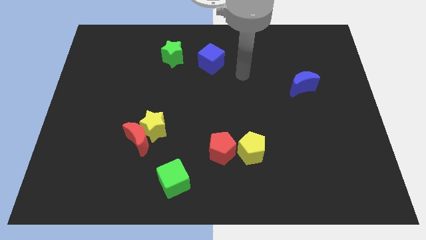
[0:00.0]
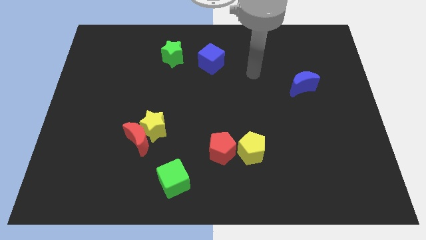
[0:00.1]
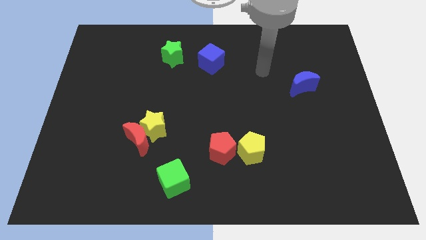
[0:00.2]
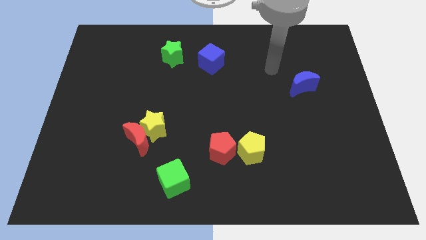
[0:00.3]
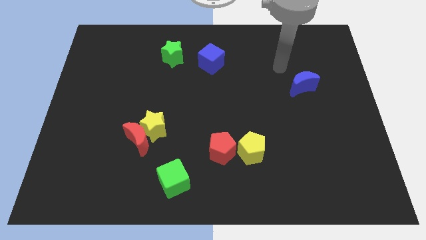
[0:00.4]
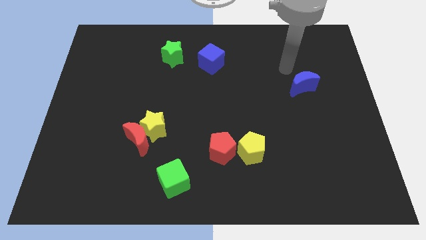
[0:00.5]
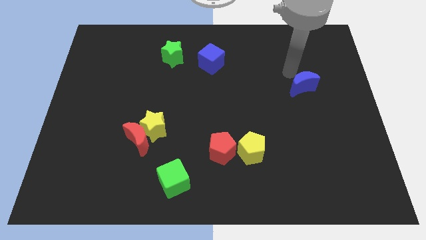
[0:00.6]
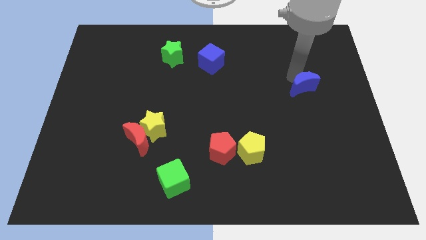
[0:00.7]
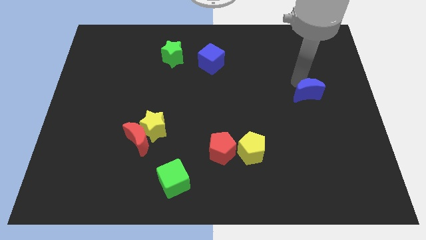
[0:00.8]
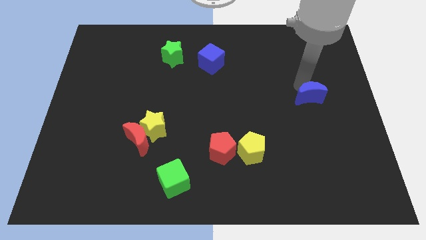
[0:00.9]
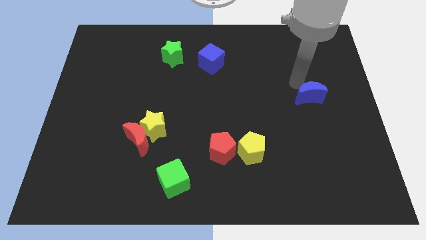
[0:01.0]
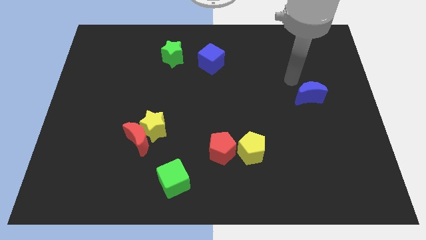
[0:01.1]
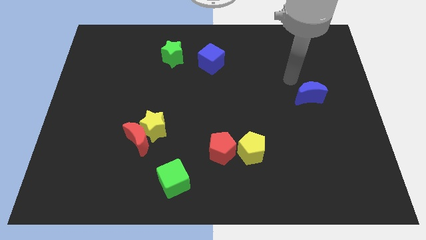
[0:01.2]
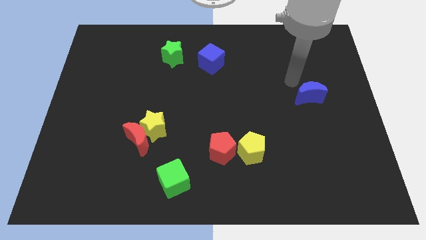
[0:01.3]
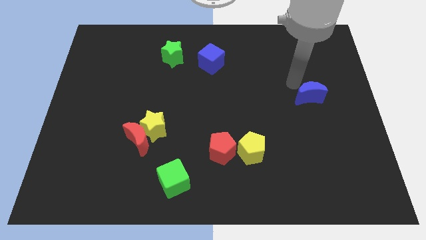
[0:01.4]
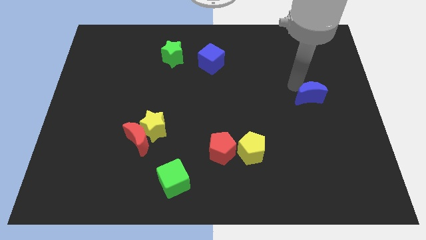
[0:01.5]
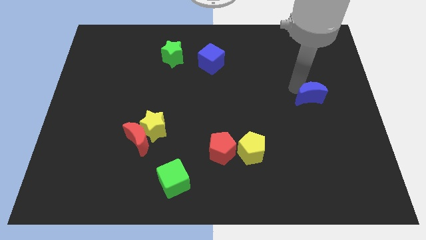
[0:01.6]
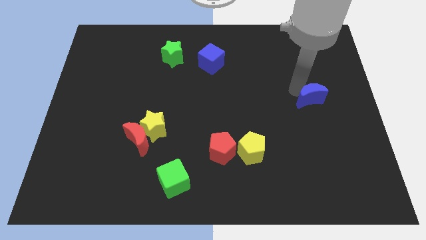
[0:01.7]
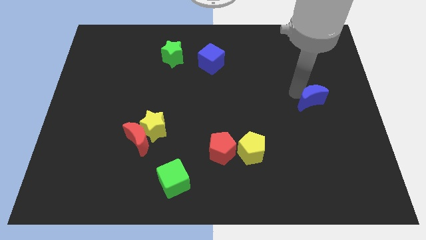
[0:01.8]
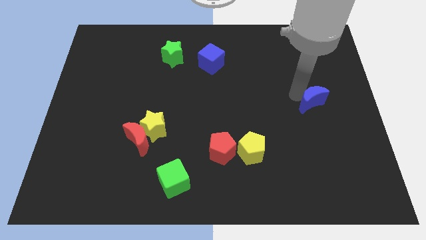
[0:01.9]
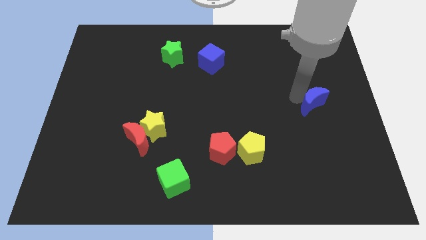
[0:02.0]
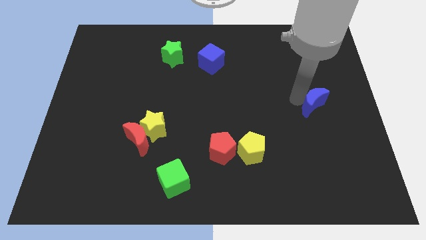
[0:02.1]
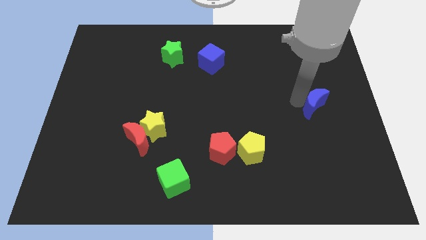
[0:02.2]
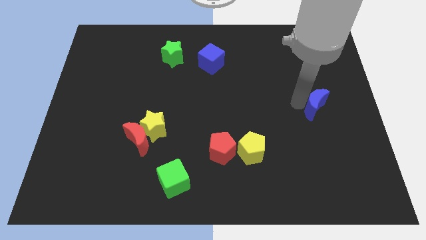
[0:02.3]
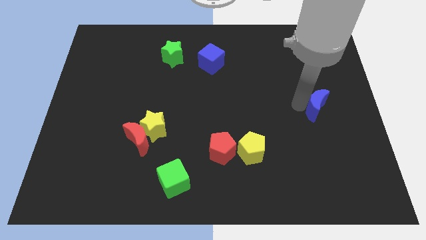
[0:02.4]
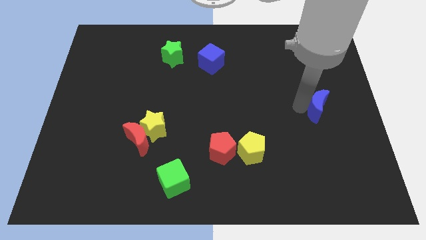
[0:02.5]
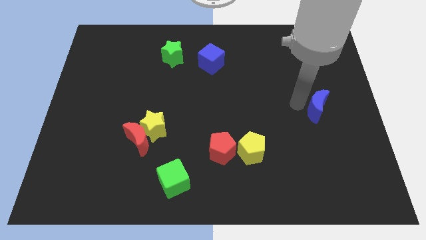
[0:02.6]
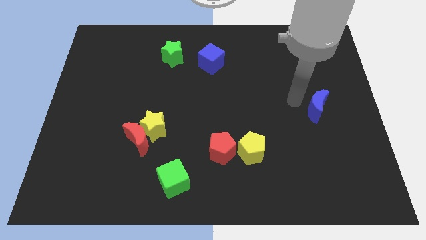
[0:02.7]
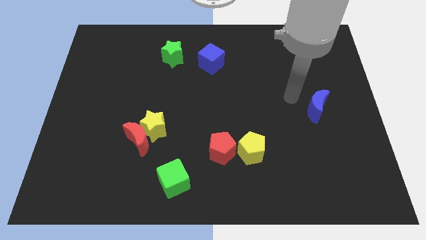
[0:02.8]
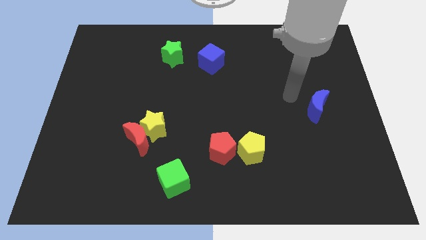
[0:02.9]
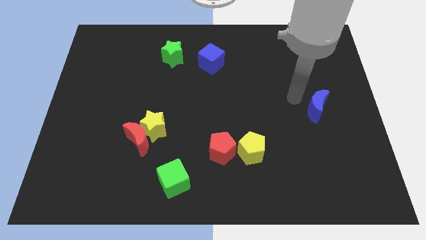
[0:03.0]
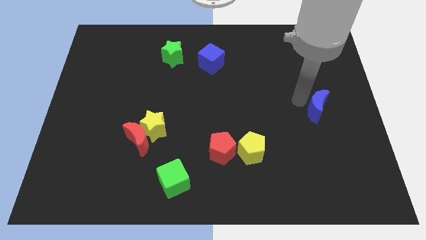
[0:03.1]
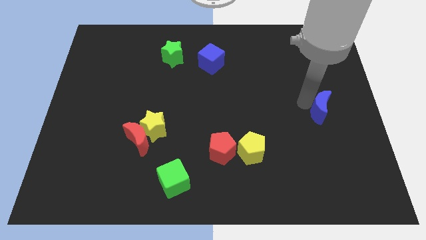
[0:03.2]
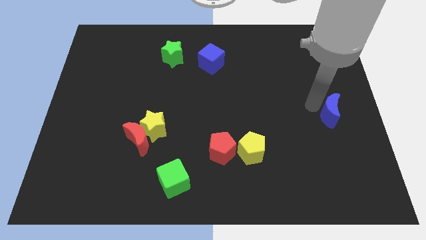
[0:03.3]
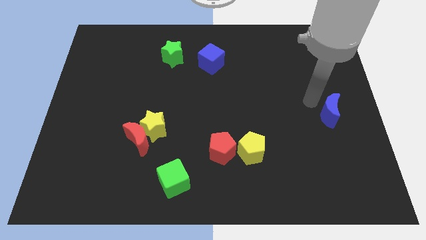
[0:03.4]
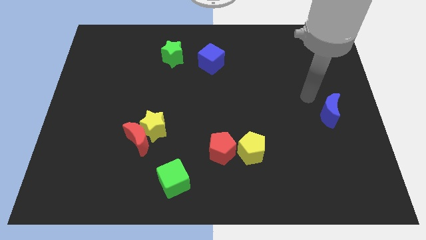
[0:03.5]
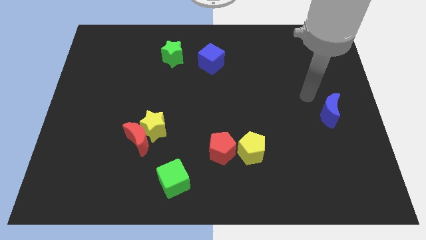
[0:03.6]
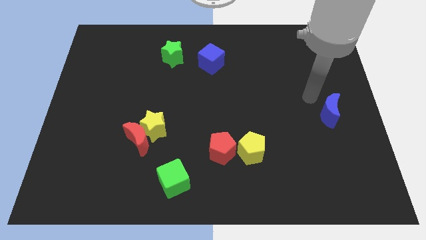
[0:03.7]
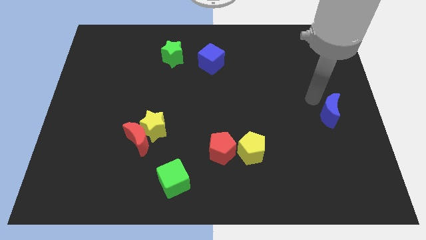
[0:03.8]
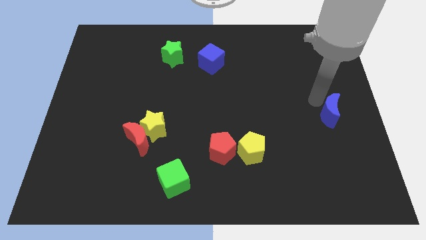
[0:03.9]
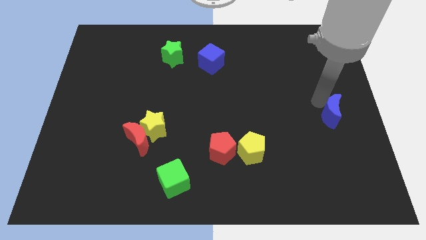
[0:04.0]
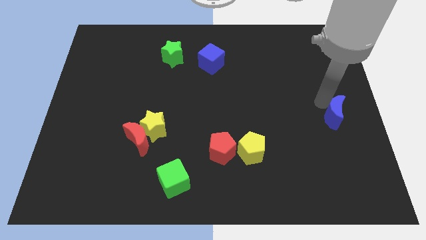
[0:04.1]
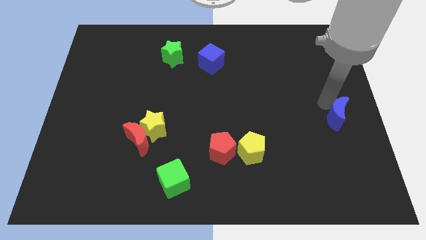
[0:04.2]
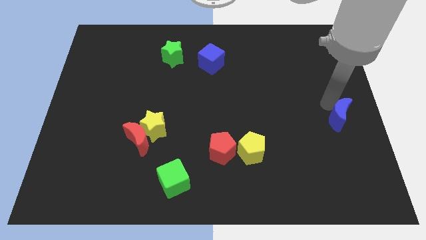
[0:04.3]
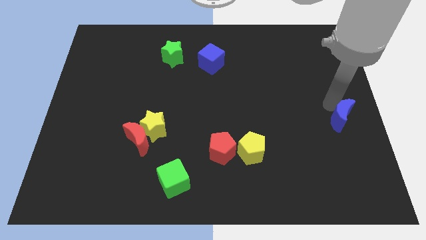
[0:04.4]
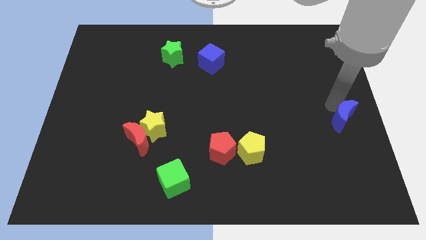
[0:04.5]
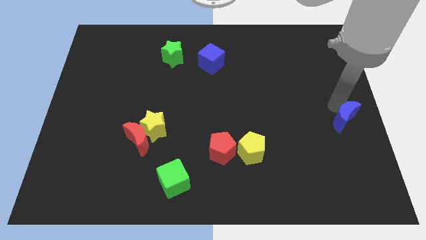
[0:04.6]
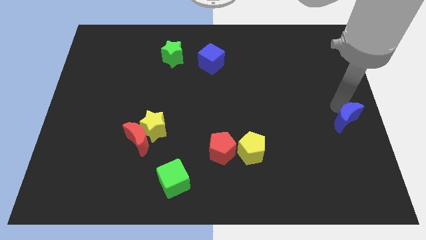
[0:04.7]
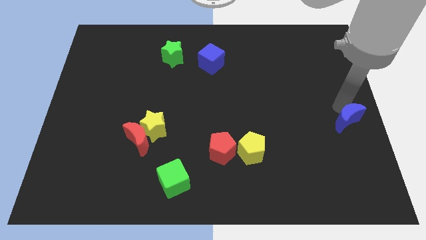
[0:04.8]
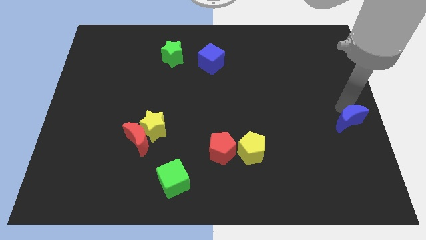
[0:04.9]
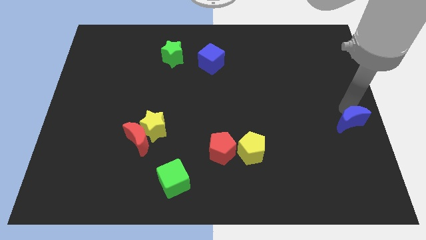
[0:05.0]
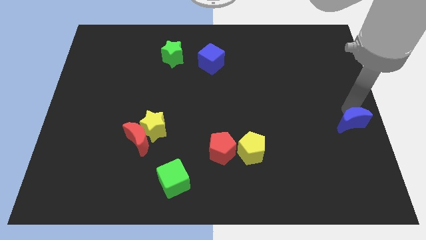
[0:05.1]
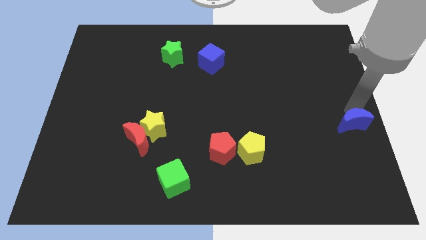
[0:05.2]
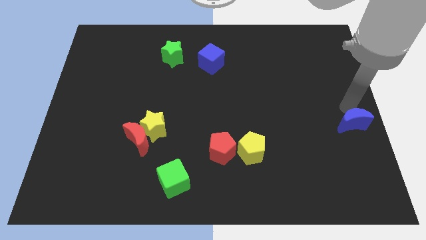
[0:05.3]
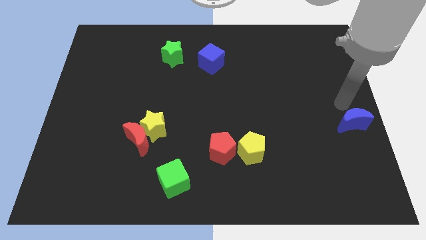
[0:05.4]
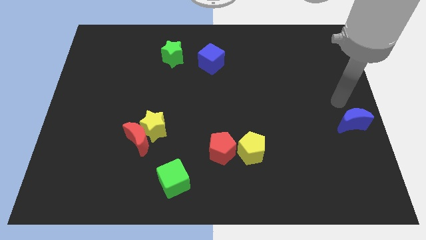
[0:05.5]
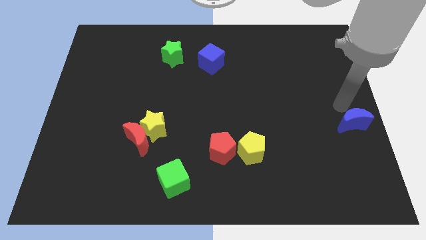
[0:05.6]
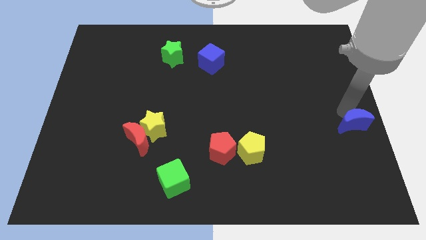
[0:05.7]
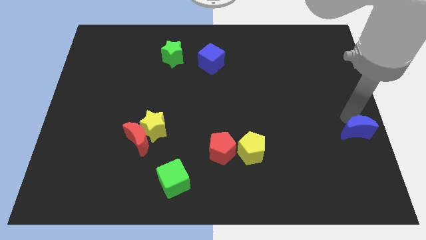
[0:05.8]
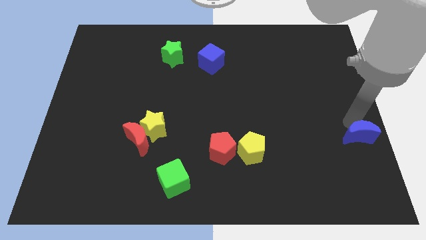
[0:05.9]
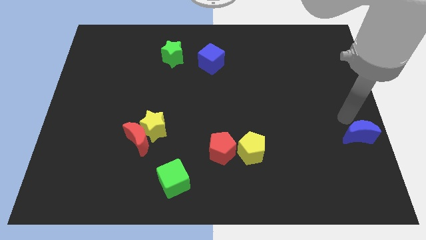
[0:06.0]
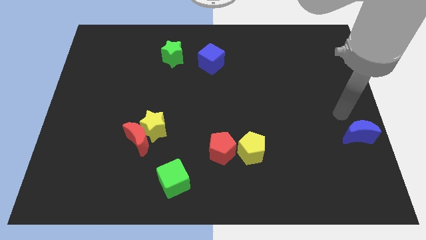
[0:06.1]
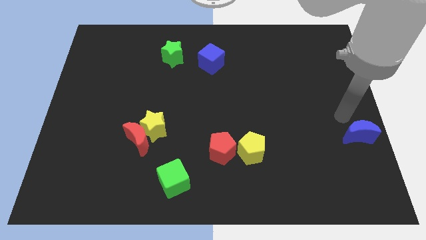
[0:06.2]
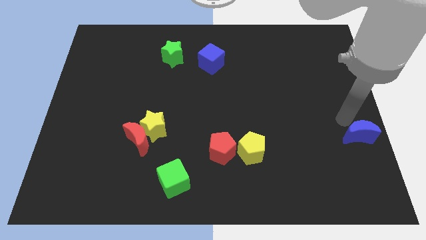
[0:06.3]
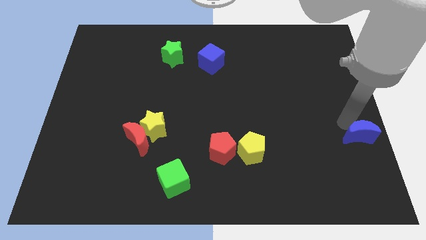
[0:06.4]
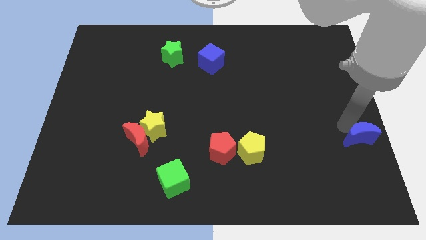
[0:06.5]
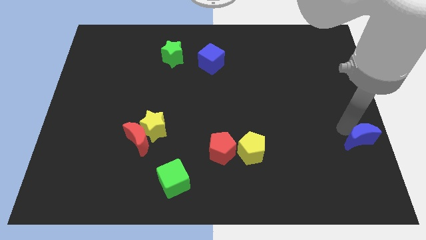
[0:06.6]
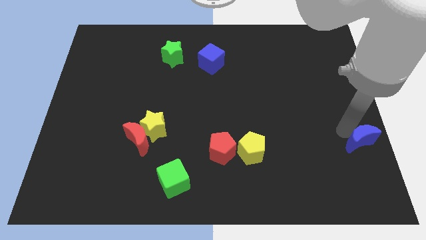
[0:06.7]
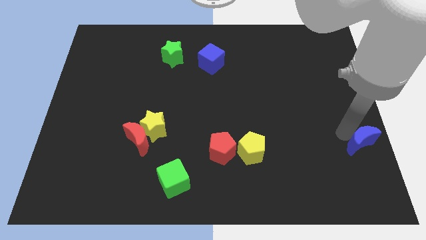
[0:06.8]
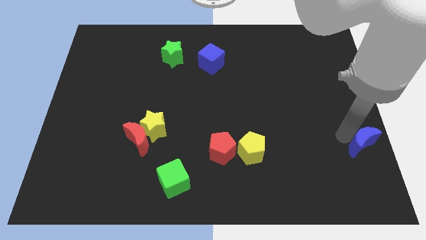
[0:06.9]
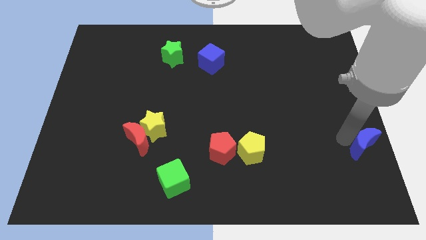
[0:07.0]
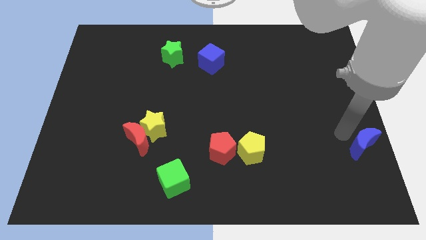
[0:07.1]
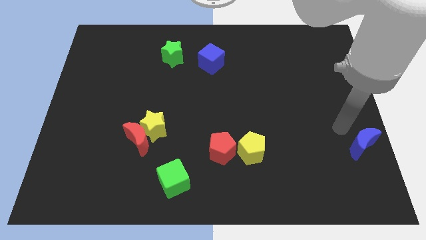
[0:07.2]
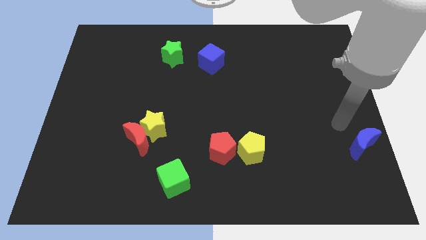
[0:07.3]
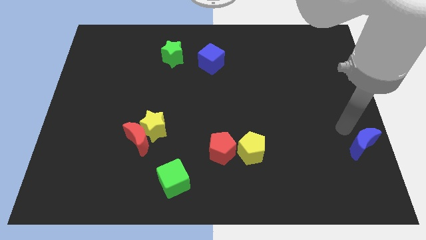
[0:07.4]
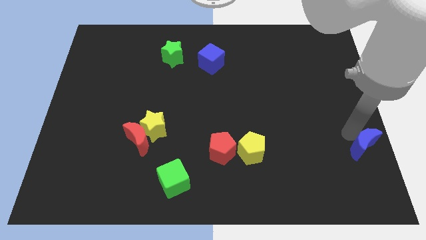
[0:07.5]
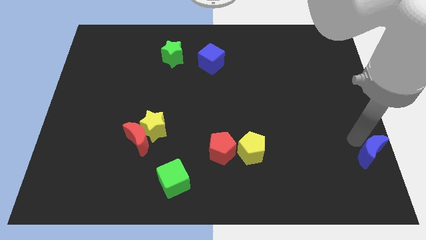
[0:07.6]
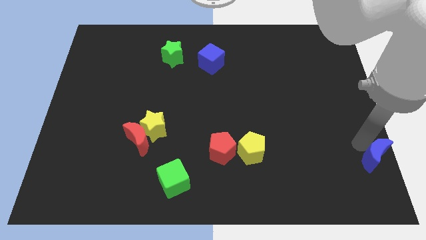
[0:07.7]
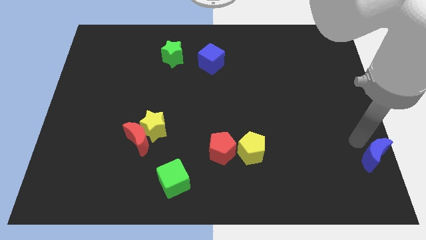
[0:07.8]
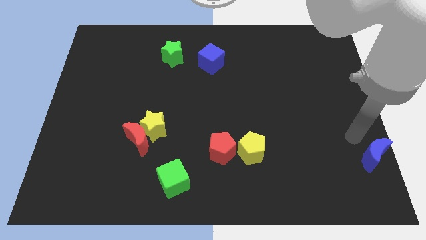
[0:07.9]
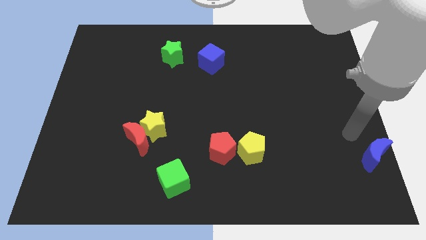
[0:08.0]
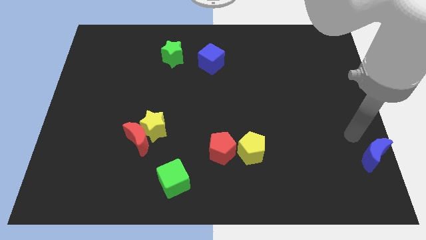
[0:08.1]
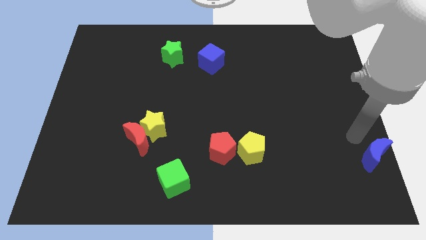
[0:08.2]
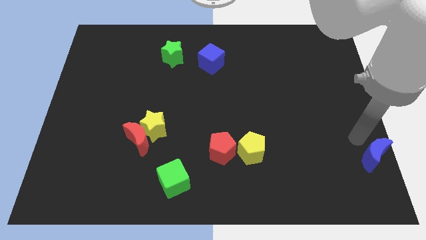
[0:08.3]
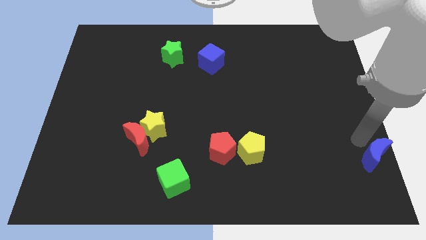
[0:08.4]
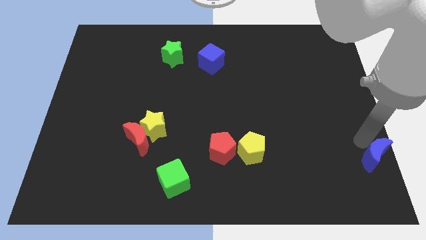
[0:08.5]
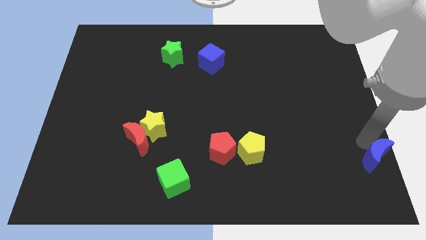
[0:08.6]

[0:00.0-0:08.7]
move the blue moon to the bottom right
